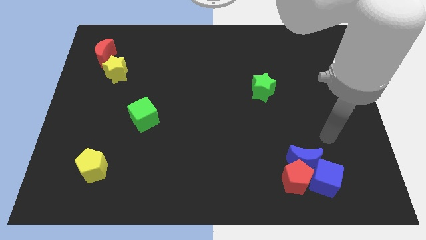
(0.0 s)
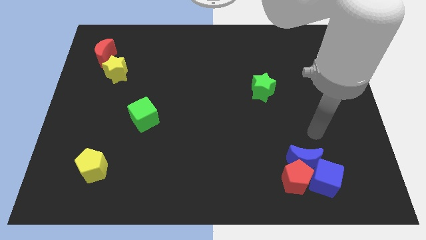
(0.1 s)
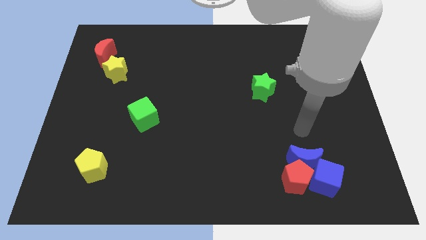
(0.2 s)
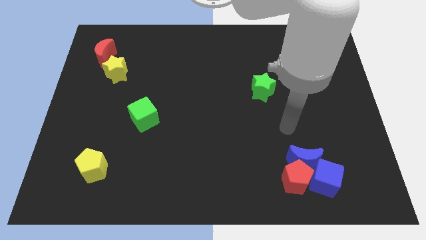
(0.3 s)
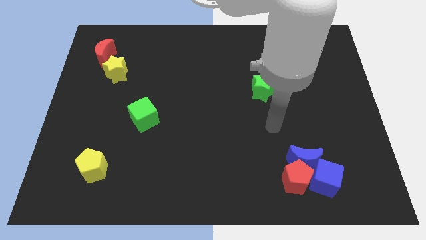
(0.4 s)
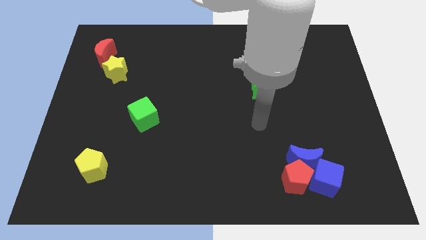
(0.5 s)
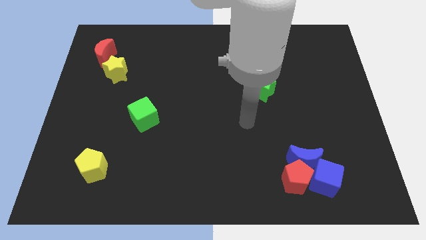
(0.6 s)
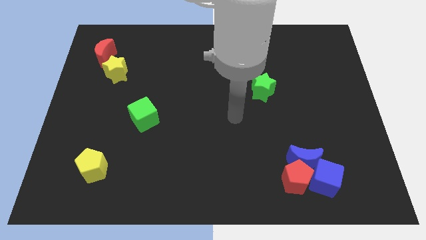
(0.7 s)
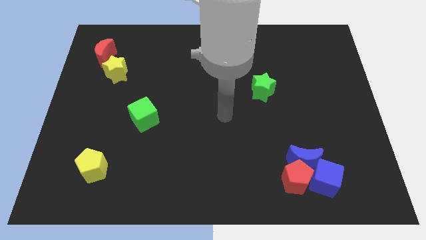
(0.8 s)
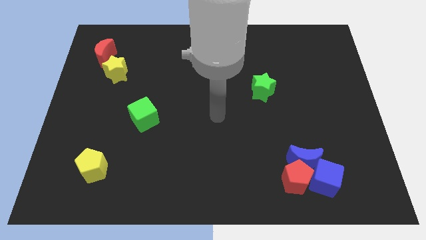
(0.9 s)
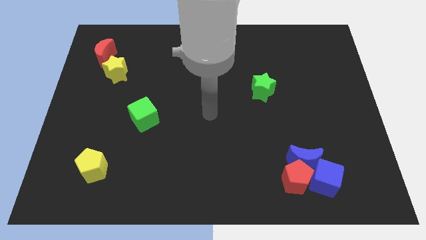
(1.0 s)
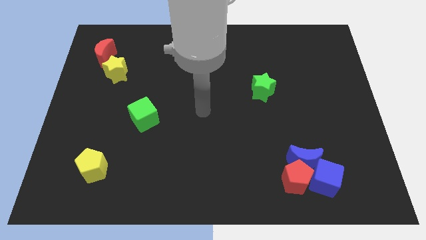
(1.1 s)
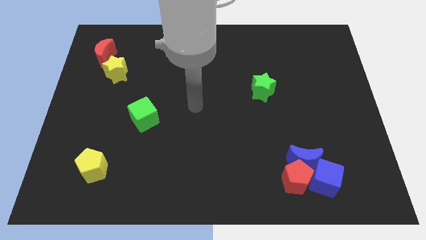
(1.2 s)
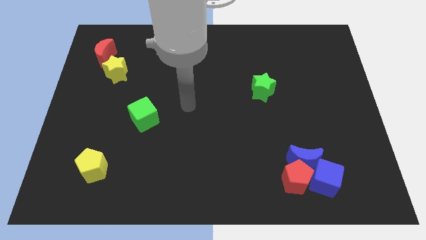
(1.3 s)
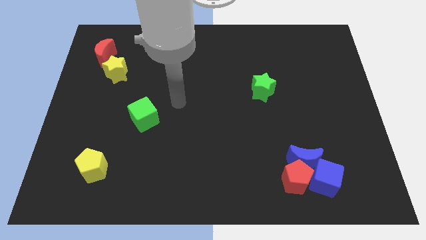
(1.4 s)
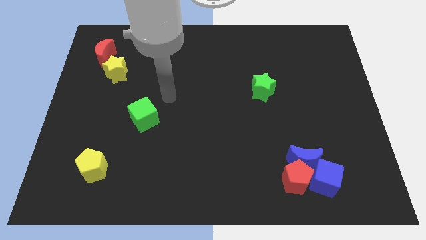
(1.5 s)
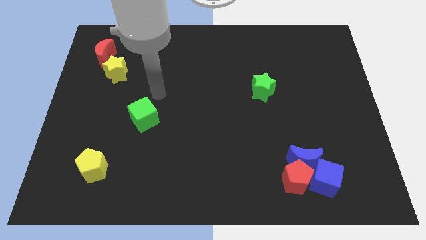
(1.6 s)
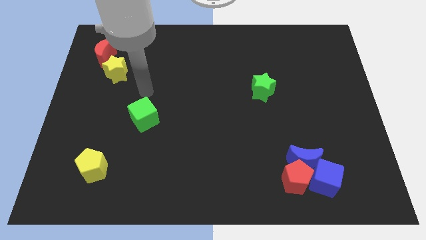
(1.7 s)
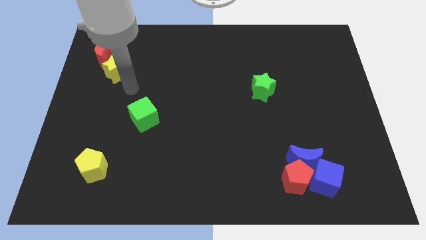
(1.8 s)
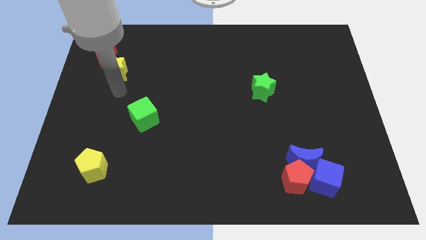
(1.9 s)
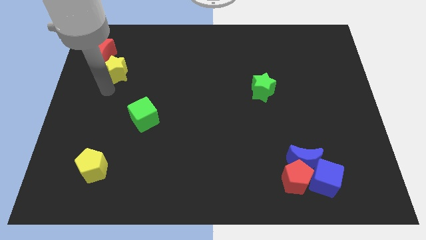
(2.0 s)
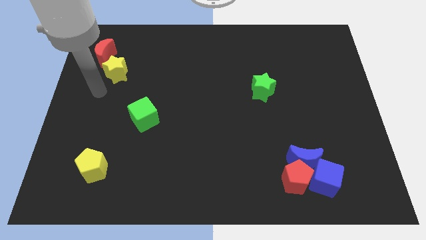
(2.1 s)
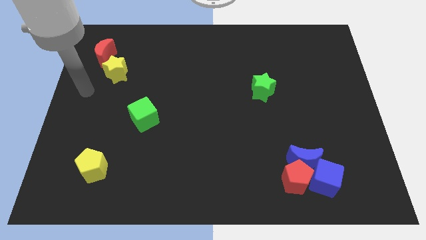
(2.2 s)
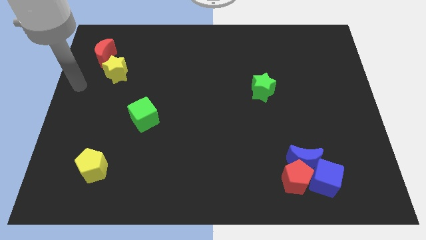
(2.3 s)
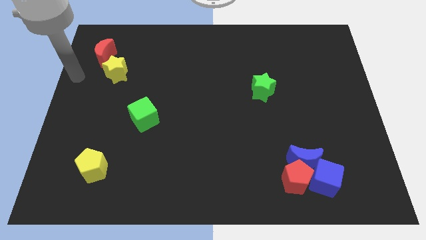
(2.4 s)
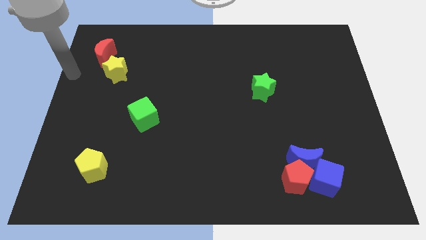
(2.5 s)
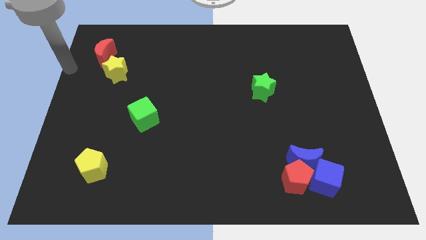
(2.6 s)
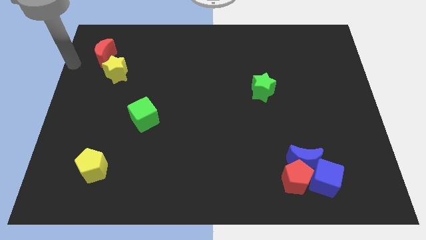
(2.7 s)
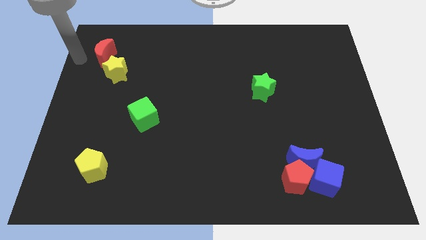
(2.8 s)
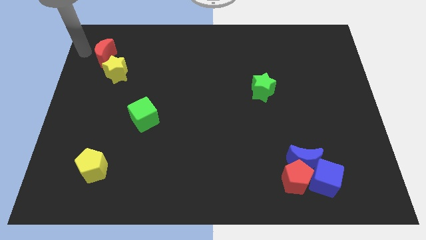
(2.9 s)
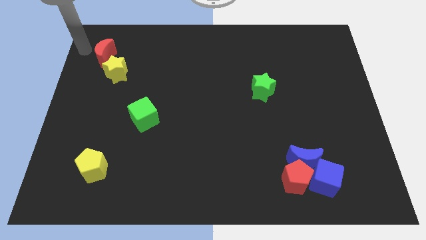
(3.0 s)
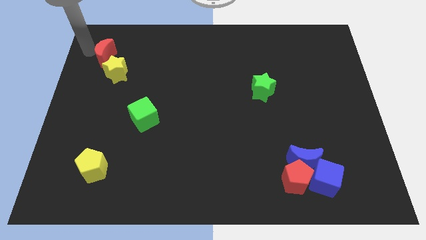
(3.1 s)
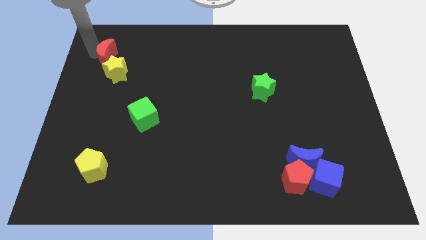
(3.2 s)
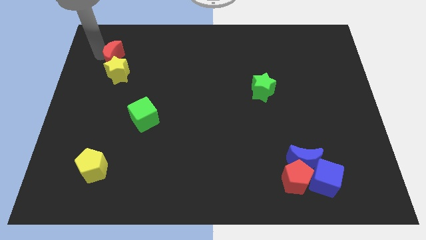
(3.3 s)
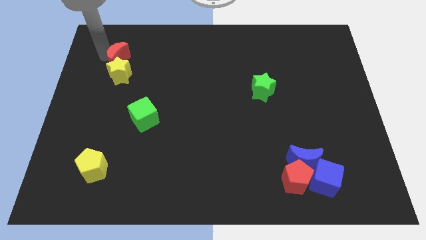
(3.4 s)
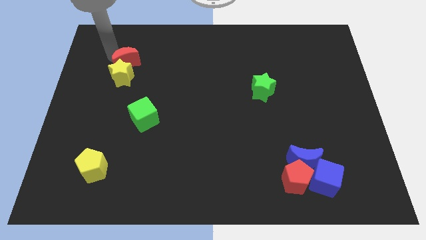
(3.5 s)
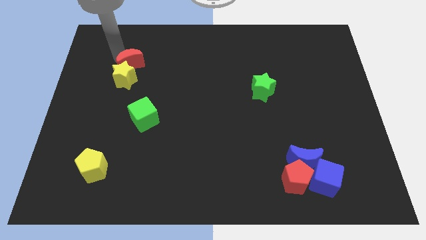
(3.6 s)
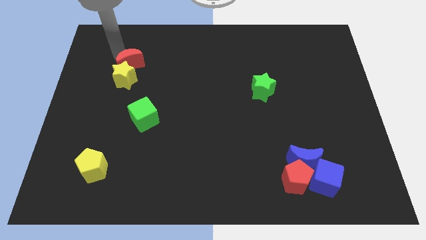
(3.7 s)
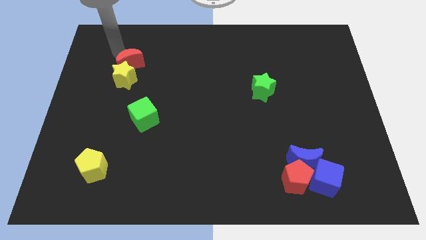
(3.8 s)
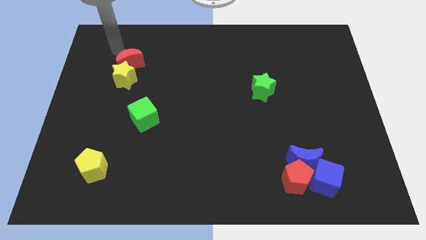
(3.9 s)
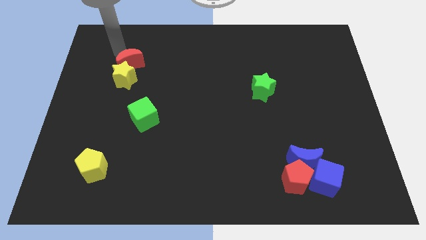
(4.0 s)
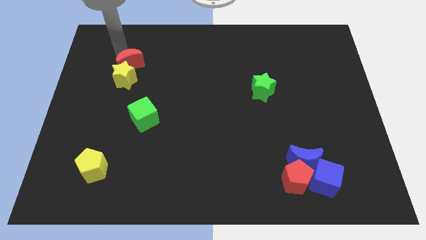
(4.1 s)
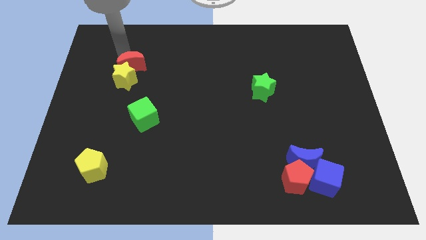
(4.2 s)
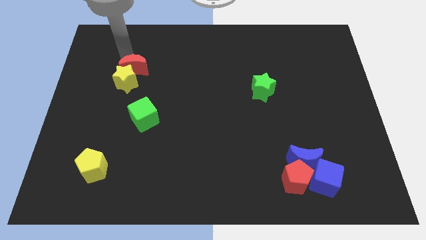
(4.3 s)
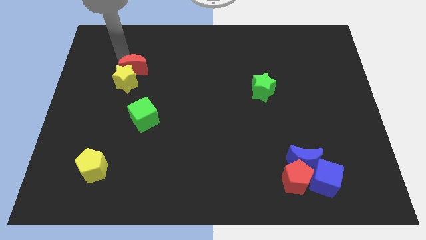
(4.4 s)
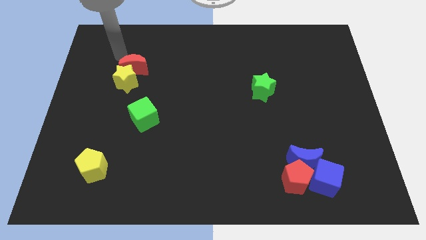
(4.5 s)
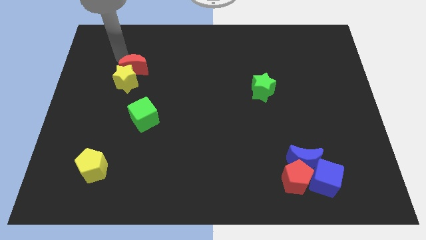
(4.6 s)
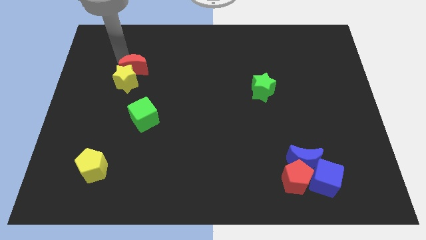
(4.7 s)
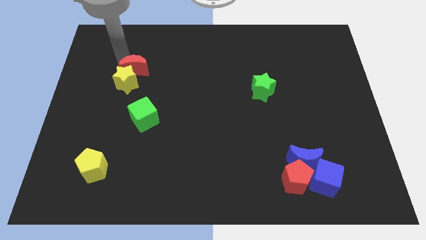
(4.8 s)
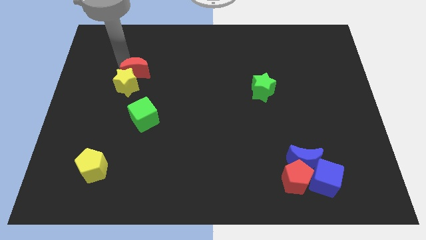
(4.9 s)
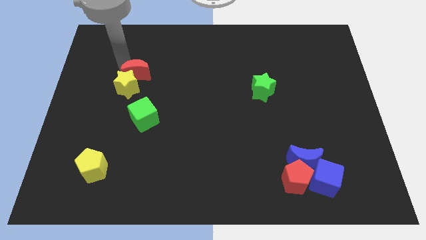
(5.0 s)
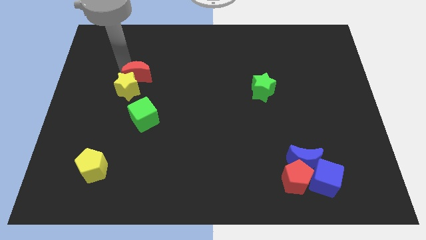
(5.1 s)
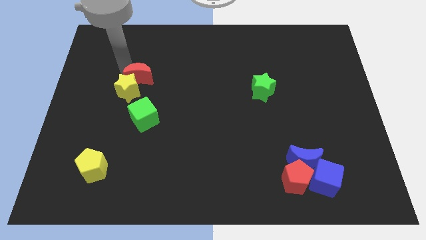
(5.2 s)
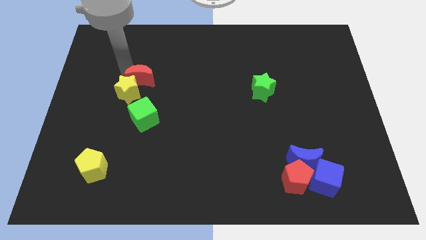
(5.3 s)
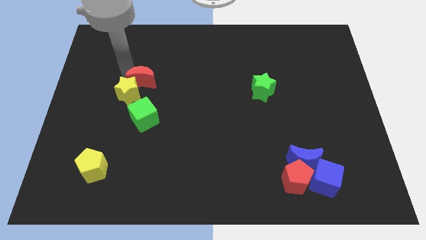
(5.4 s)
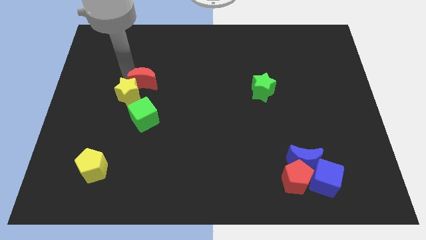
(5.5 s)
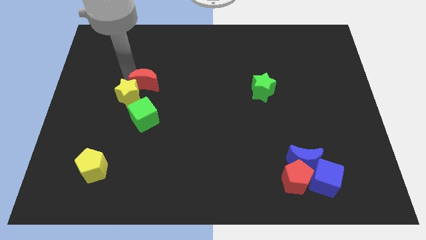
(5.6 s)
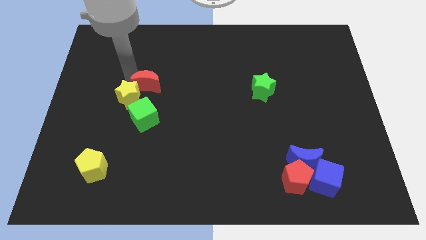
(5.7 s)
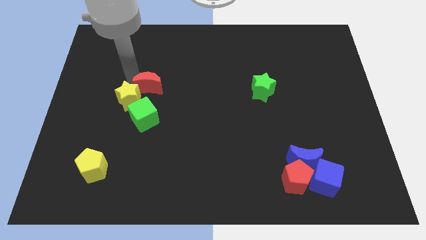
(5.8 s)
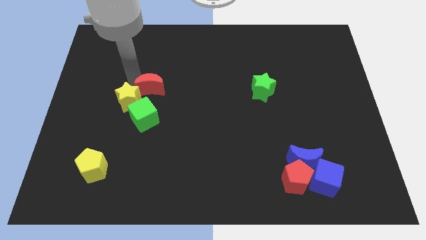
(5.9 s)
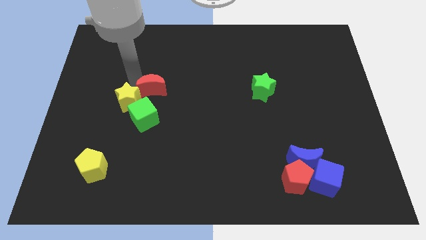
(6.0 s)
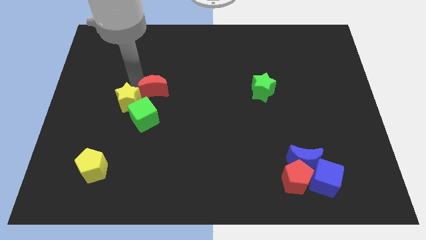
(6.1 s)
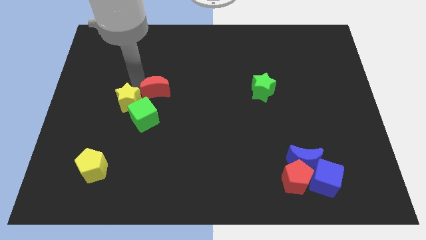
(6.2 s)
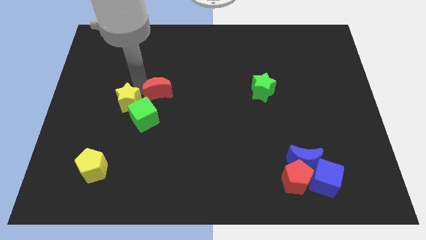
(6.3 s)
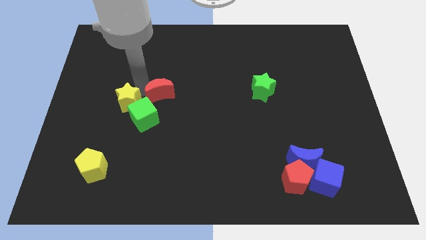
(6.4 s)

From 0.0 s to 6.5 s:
move the red moon diagonally downwards and right

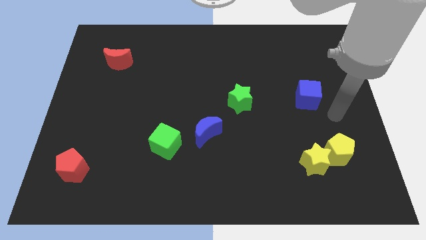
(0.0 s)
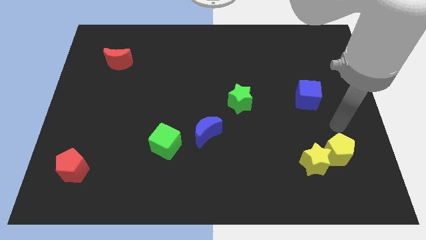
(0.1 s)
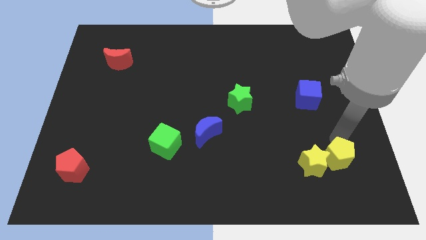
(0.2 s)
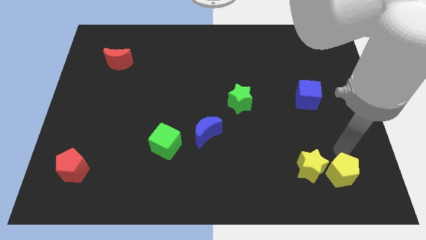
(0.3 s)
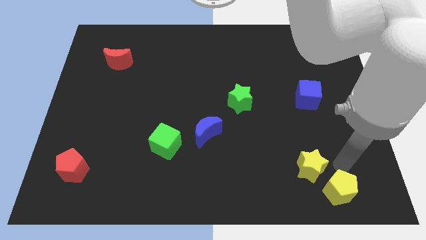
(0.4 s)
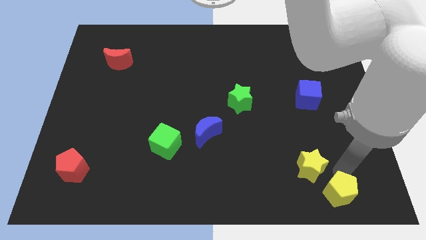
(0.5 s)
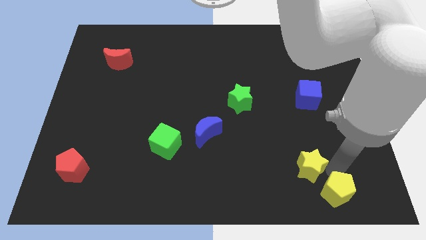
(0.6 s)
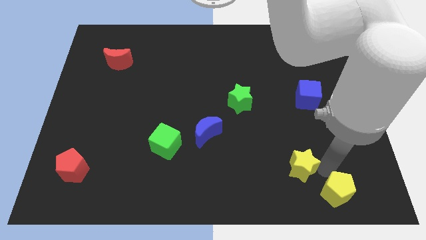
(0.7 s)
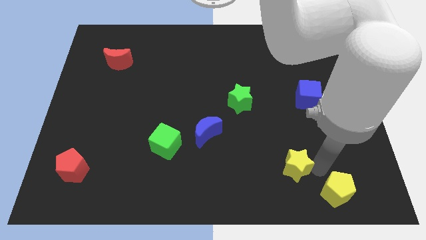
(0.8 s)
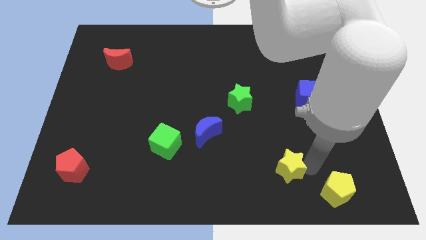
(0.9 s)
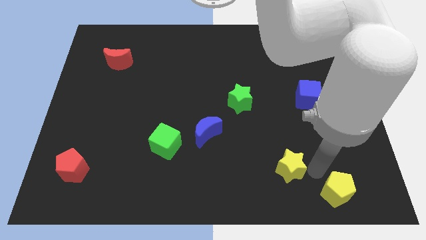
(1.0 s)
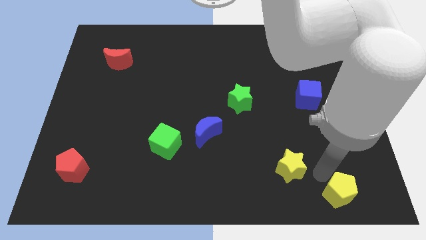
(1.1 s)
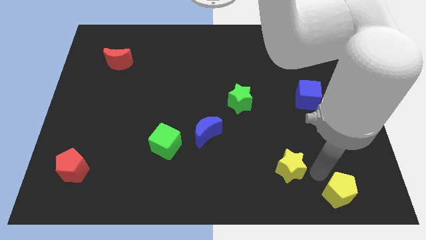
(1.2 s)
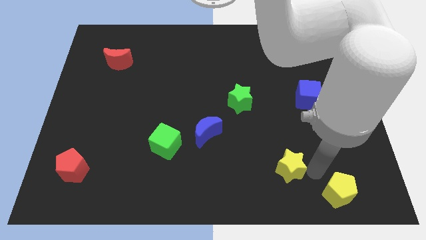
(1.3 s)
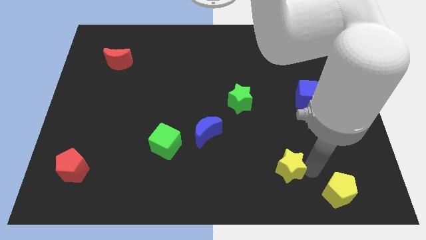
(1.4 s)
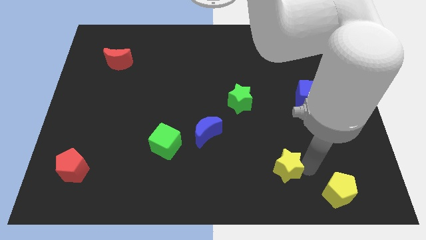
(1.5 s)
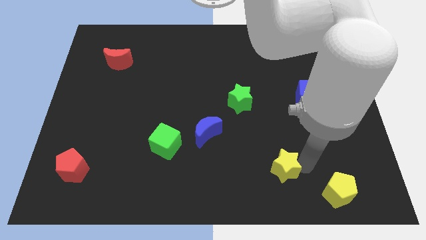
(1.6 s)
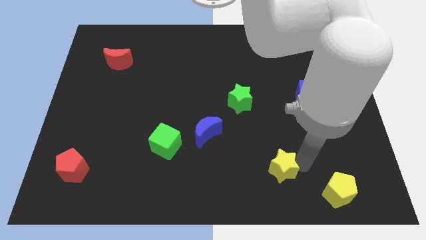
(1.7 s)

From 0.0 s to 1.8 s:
slightly push the yellow star to the left
